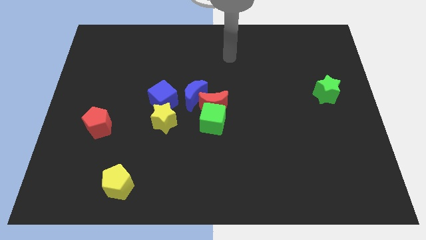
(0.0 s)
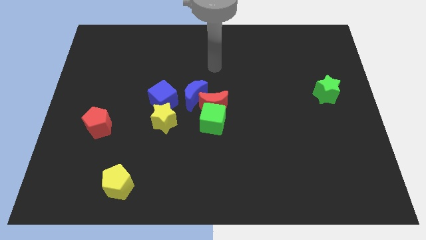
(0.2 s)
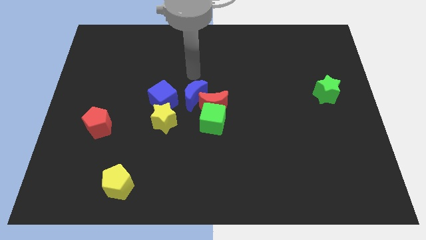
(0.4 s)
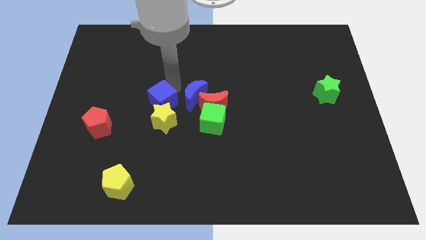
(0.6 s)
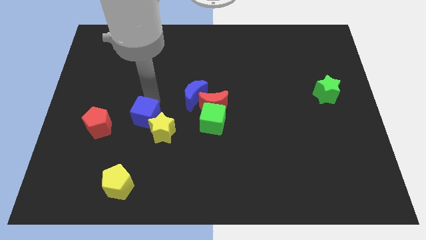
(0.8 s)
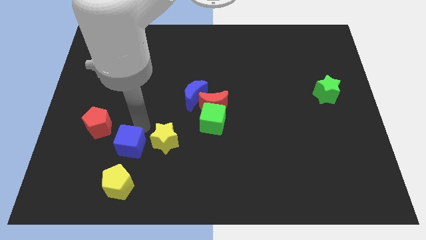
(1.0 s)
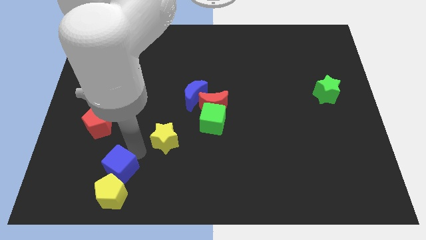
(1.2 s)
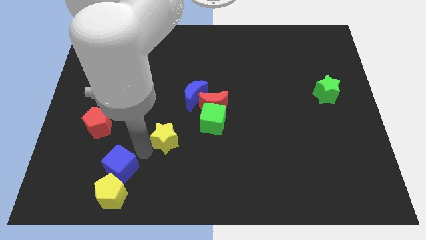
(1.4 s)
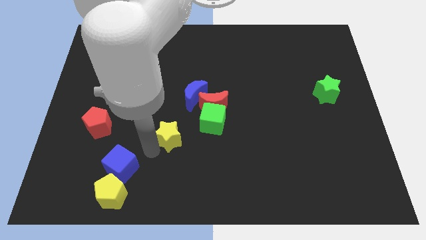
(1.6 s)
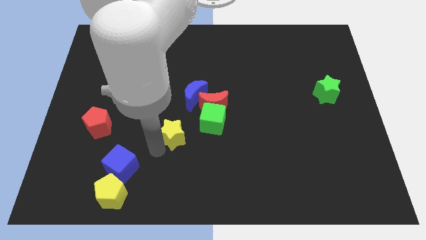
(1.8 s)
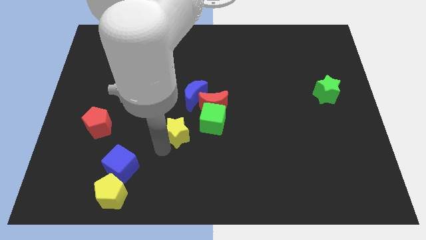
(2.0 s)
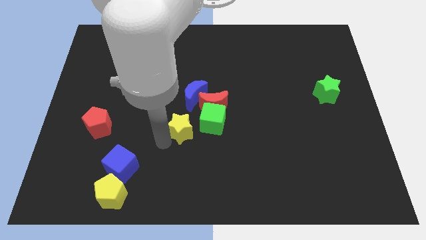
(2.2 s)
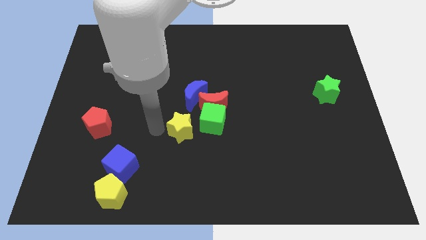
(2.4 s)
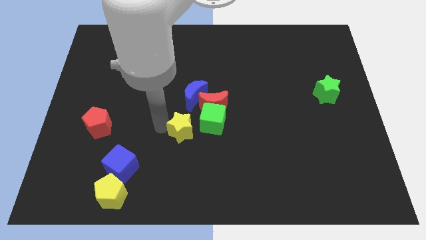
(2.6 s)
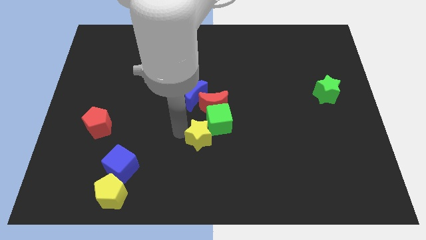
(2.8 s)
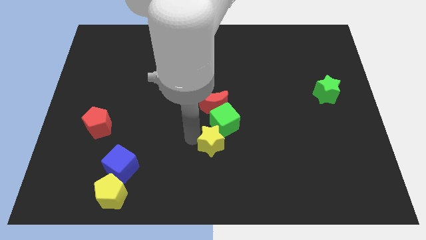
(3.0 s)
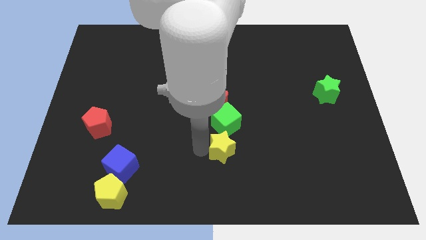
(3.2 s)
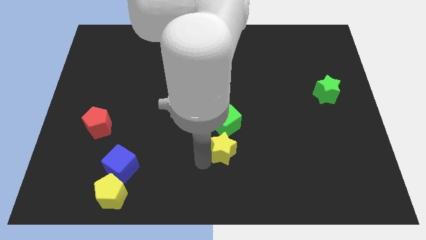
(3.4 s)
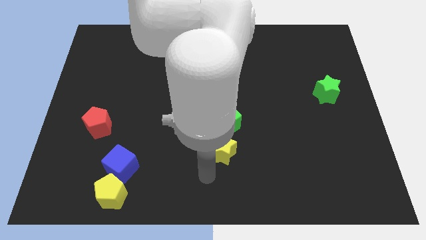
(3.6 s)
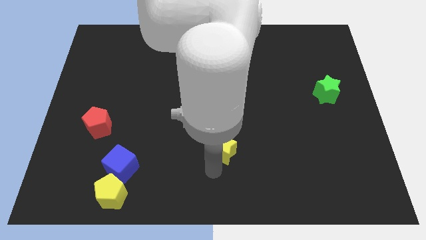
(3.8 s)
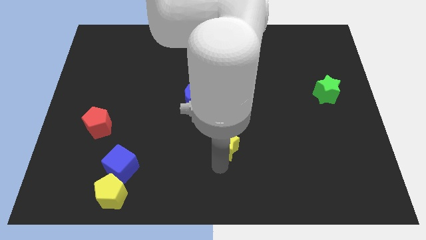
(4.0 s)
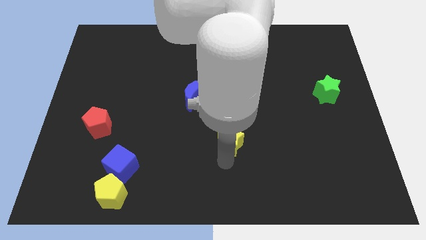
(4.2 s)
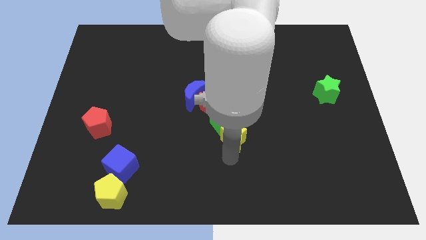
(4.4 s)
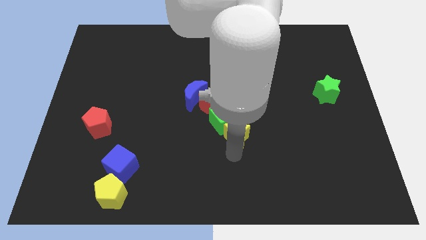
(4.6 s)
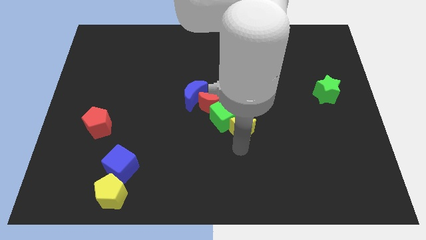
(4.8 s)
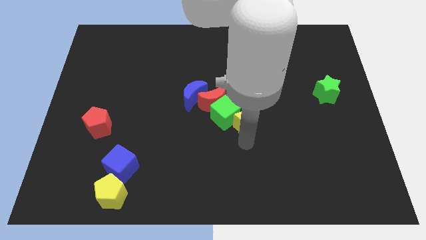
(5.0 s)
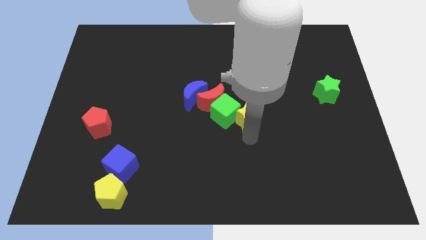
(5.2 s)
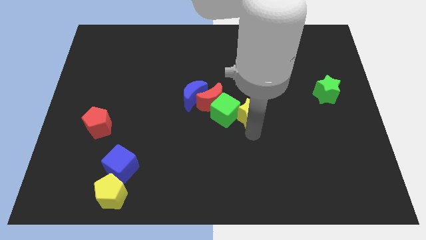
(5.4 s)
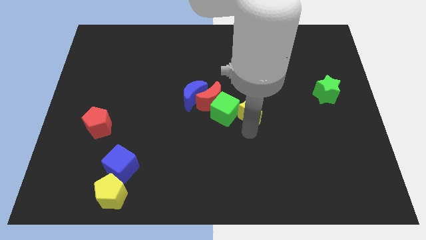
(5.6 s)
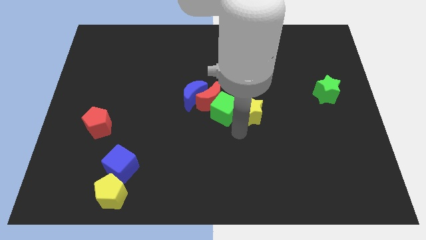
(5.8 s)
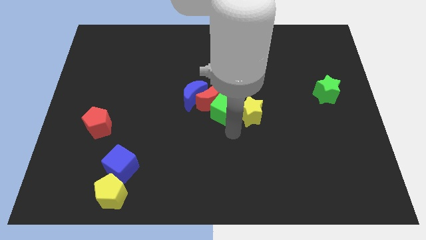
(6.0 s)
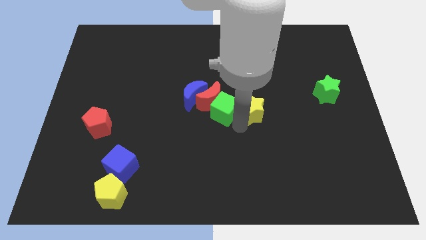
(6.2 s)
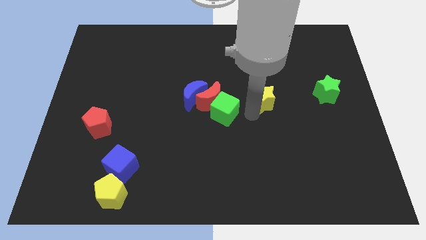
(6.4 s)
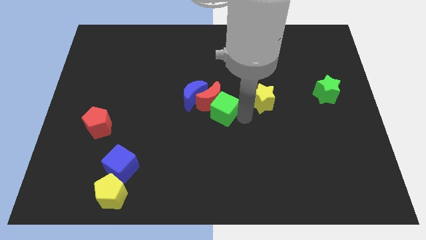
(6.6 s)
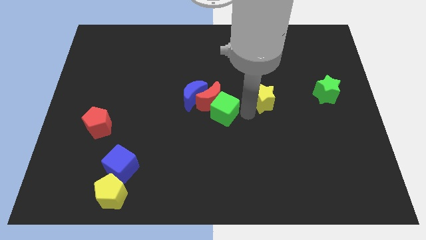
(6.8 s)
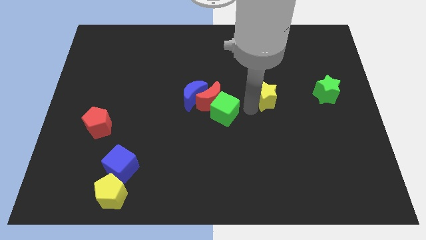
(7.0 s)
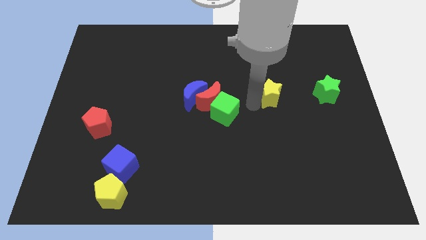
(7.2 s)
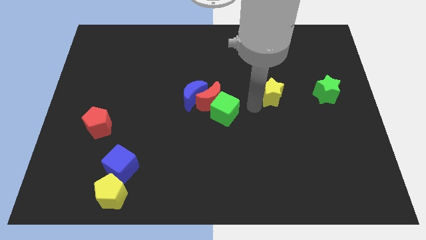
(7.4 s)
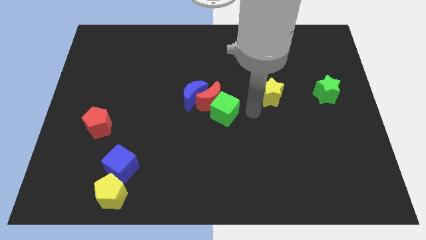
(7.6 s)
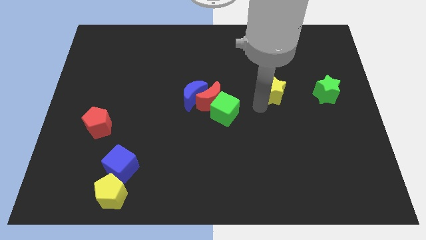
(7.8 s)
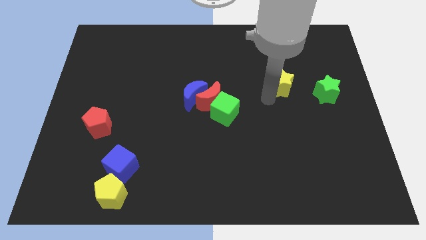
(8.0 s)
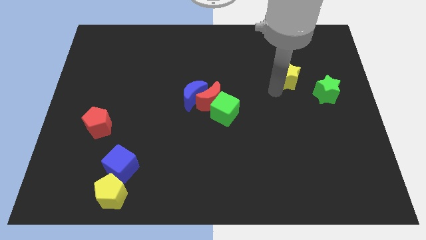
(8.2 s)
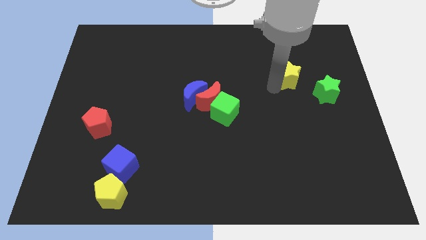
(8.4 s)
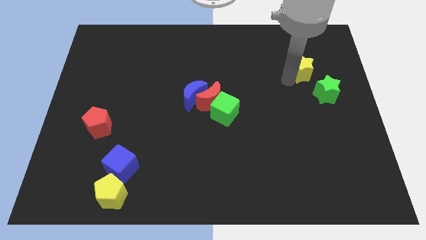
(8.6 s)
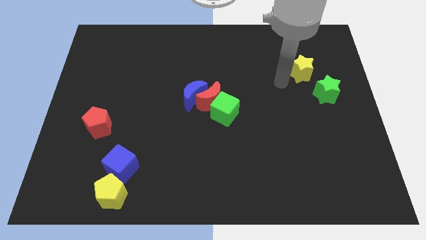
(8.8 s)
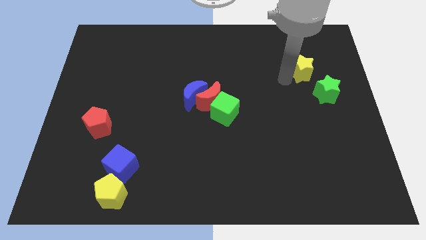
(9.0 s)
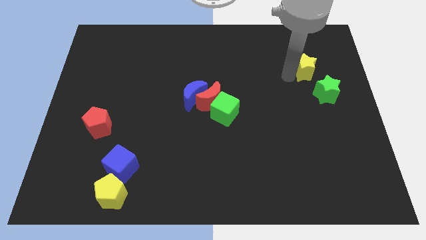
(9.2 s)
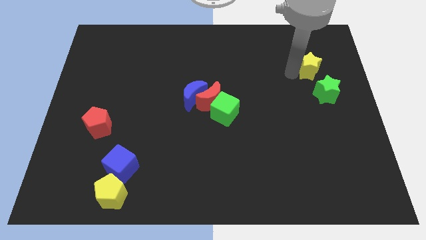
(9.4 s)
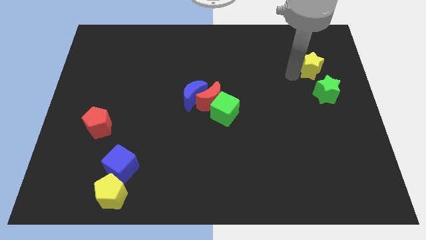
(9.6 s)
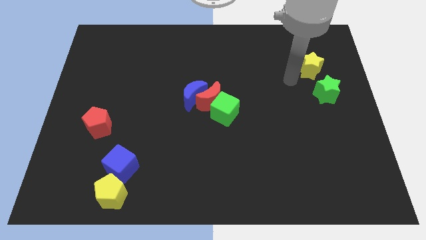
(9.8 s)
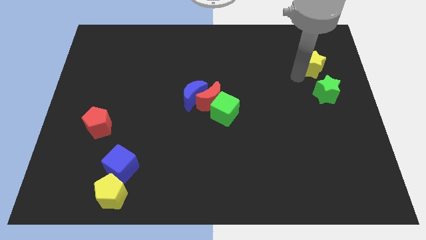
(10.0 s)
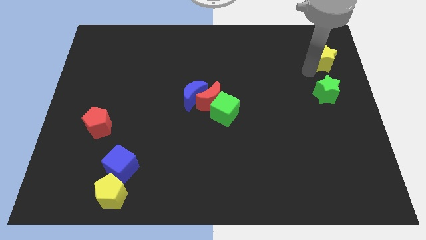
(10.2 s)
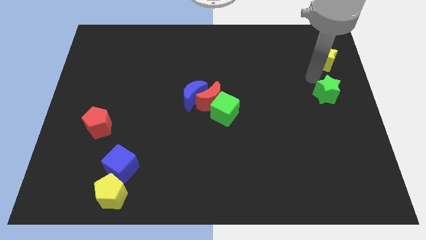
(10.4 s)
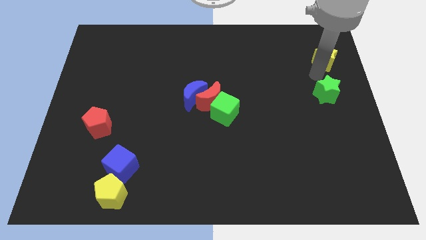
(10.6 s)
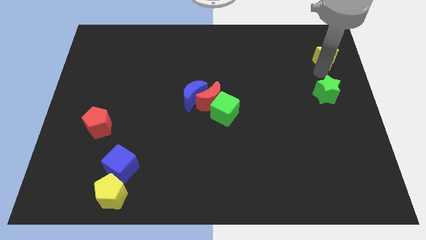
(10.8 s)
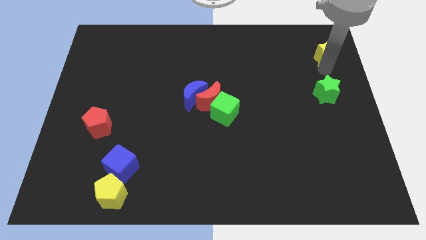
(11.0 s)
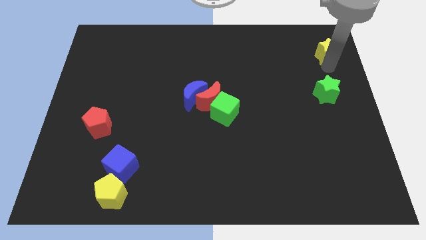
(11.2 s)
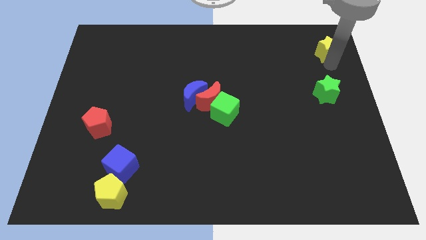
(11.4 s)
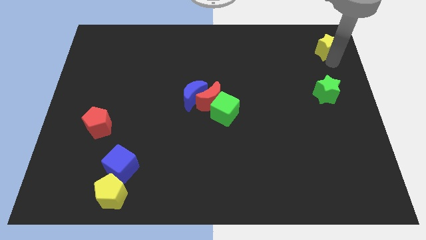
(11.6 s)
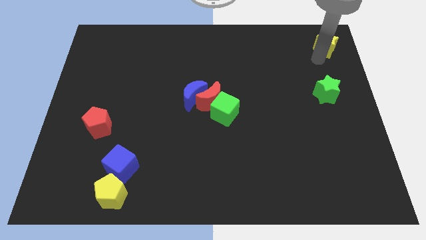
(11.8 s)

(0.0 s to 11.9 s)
put the yellow star to the top right of the board

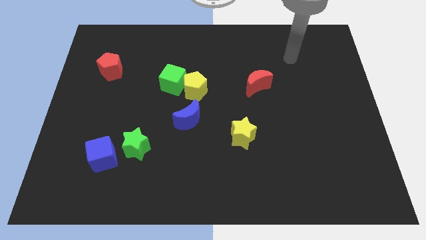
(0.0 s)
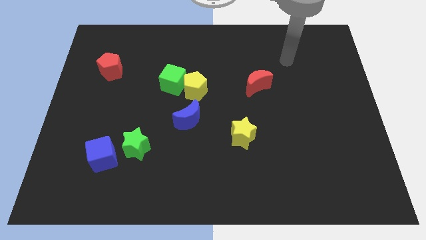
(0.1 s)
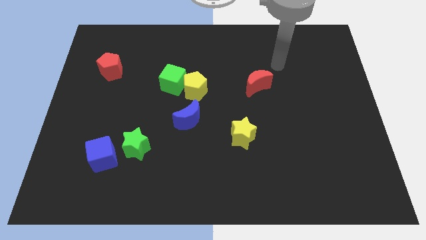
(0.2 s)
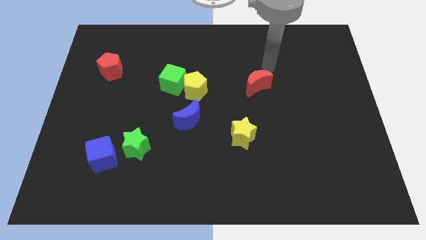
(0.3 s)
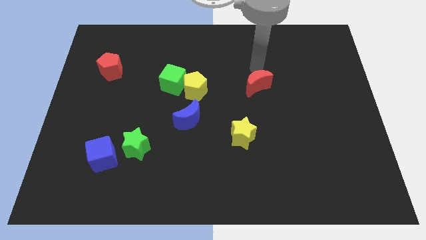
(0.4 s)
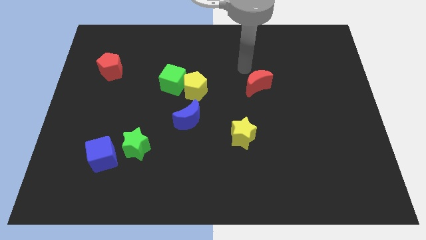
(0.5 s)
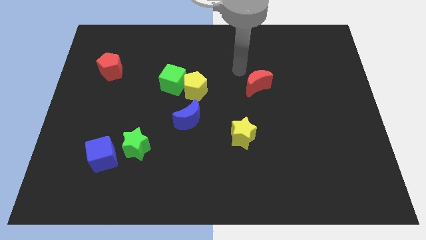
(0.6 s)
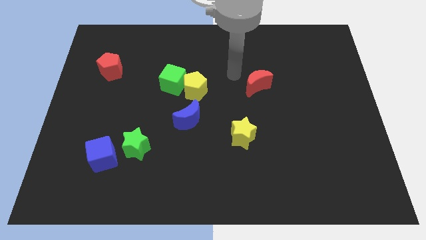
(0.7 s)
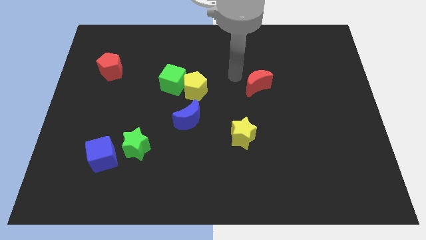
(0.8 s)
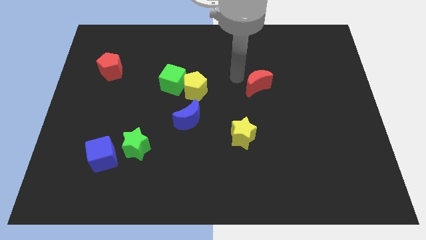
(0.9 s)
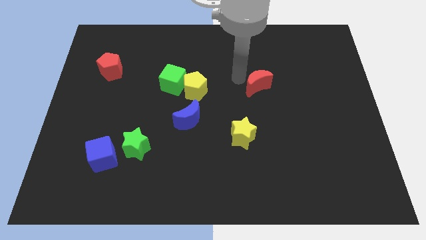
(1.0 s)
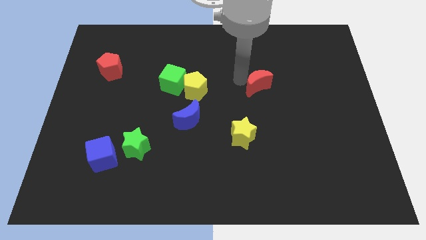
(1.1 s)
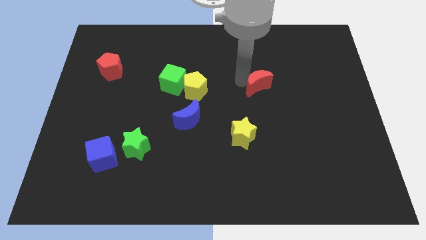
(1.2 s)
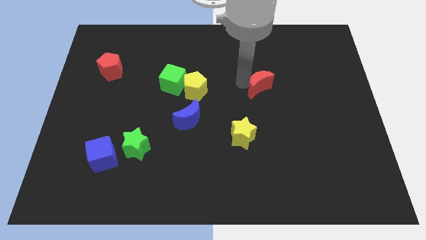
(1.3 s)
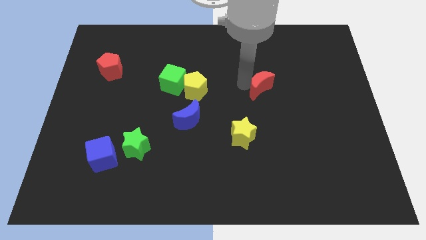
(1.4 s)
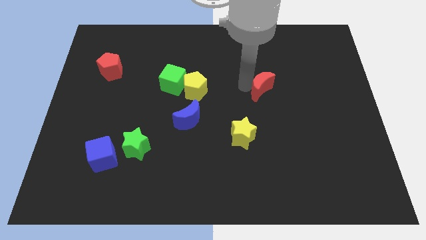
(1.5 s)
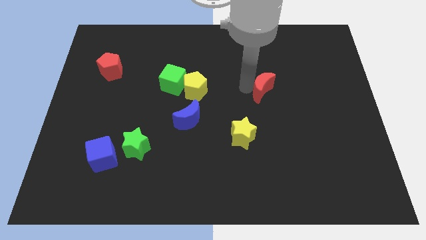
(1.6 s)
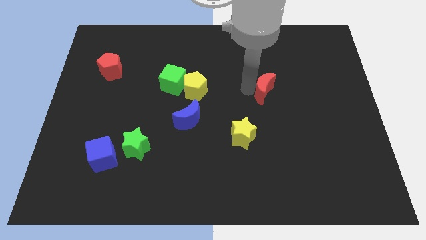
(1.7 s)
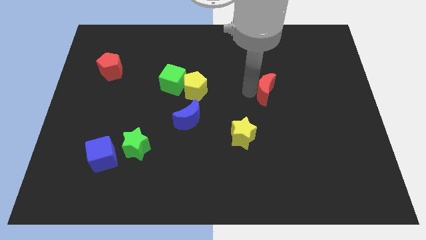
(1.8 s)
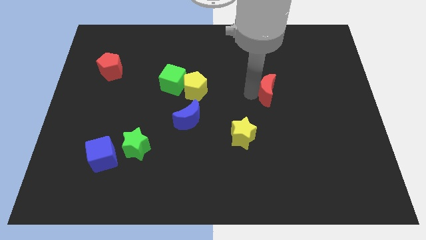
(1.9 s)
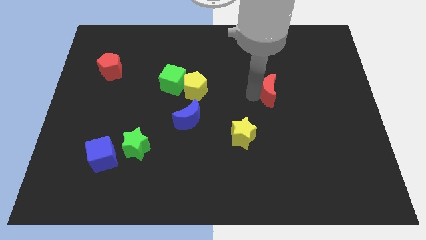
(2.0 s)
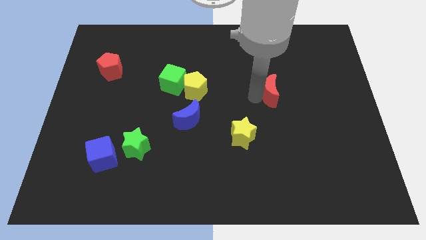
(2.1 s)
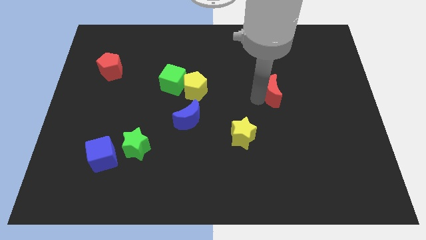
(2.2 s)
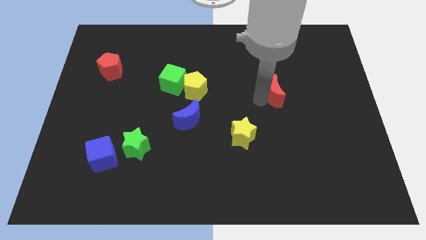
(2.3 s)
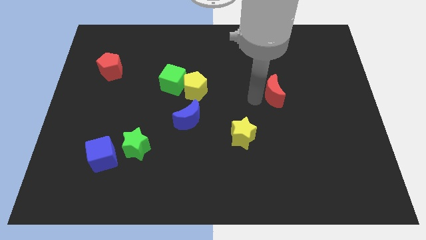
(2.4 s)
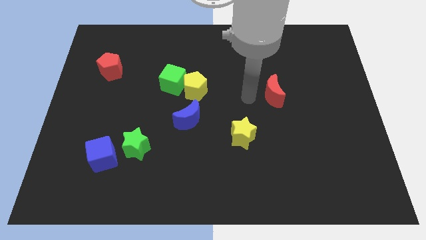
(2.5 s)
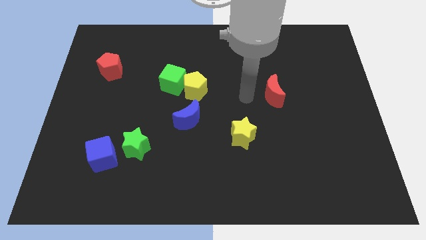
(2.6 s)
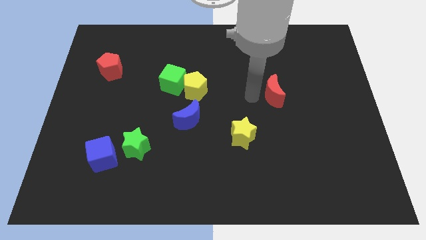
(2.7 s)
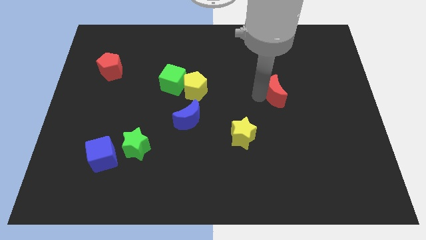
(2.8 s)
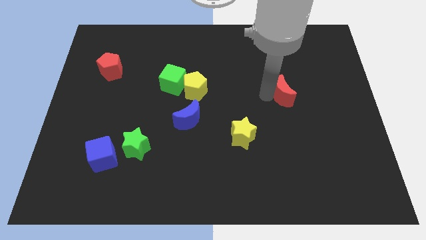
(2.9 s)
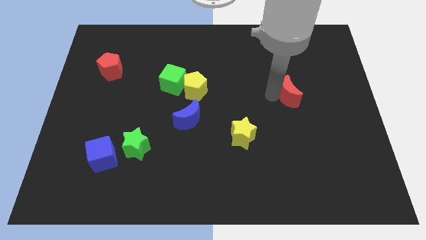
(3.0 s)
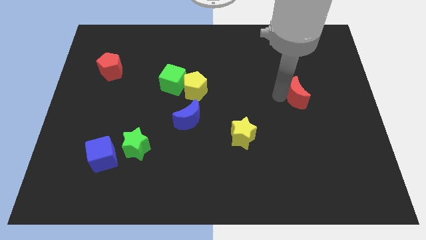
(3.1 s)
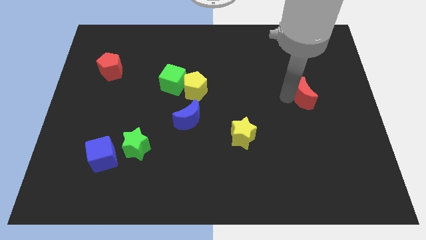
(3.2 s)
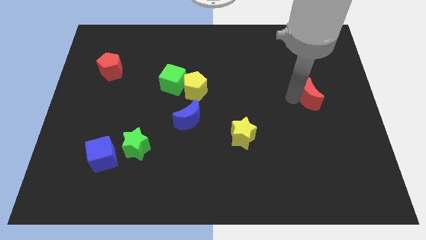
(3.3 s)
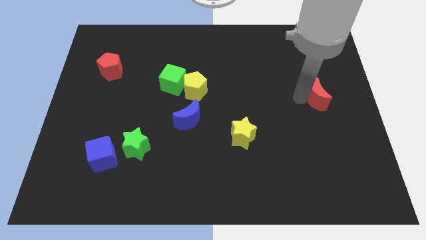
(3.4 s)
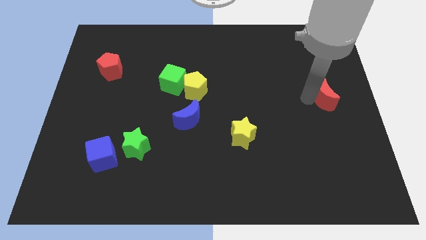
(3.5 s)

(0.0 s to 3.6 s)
push the red moon to the right side of the board
